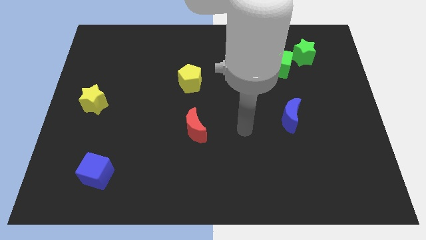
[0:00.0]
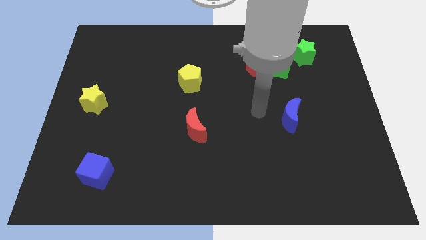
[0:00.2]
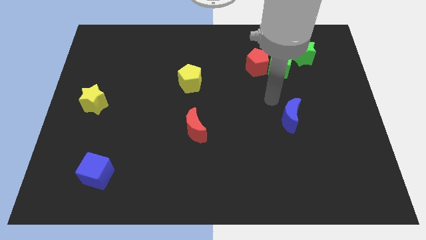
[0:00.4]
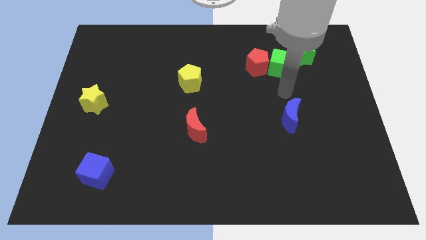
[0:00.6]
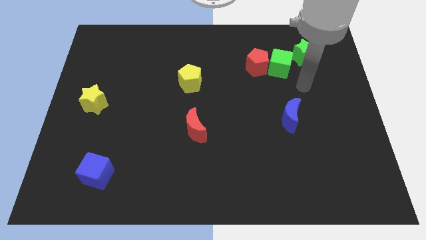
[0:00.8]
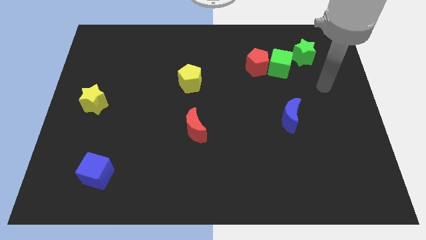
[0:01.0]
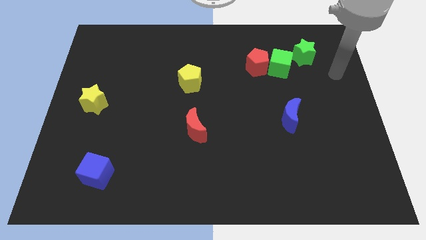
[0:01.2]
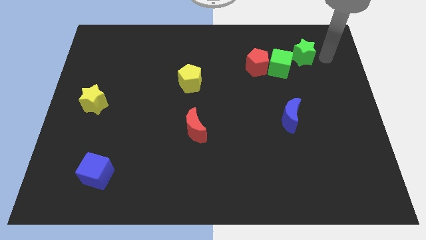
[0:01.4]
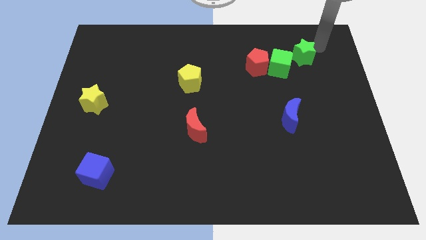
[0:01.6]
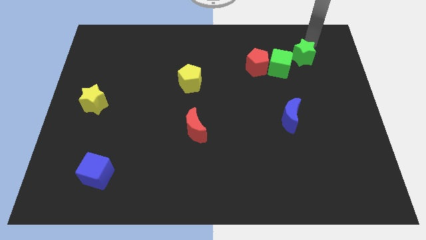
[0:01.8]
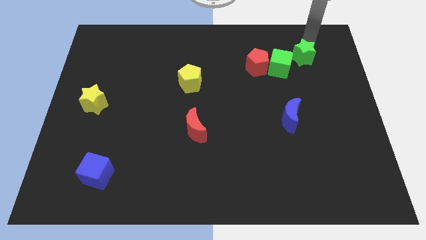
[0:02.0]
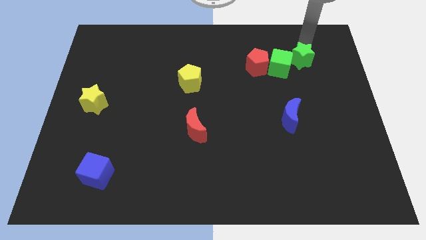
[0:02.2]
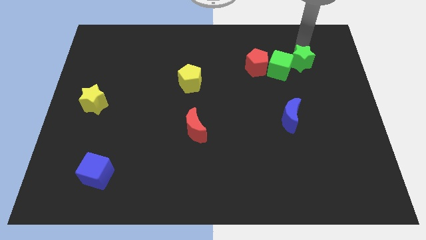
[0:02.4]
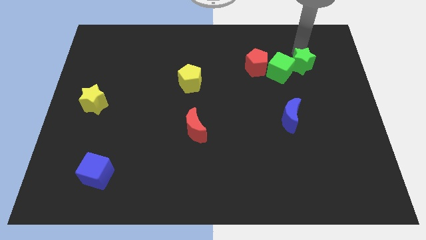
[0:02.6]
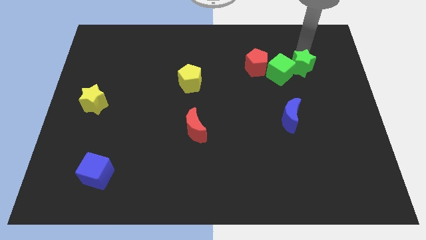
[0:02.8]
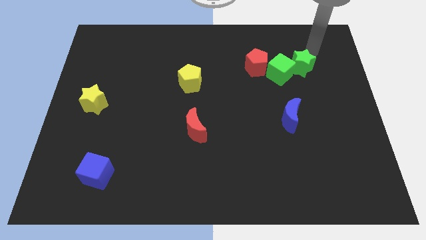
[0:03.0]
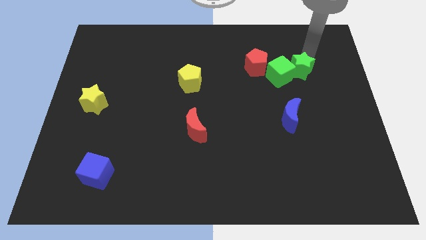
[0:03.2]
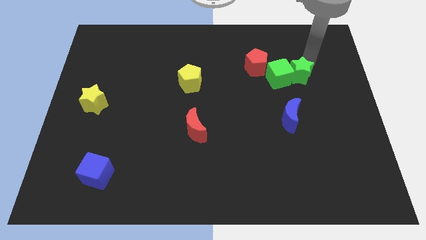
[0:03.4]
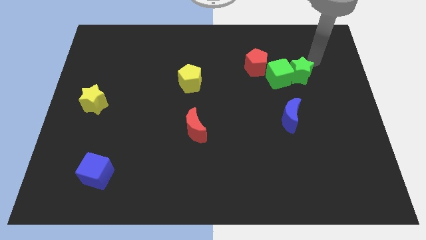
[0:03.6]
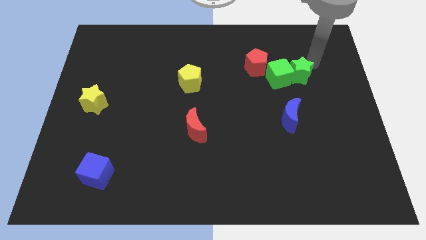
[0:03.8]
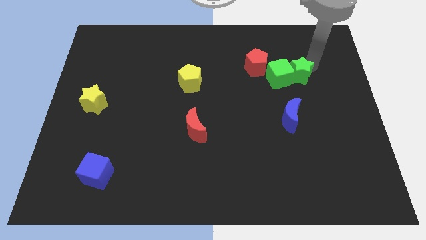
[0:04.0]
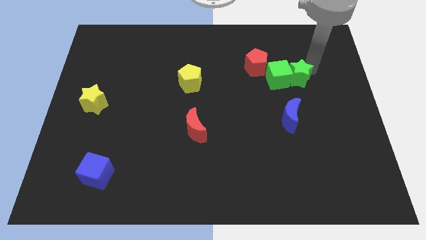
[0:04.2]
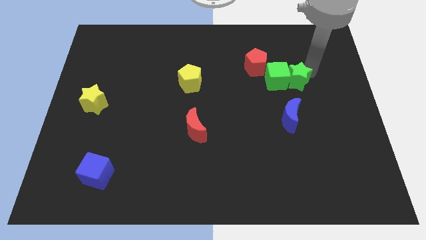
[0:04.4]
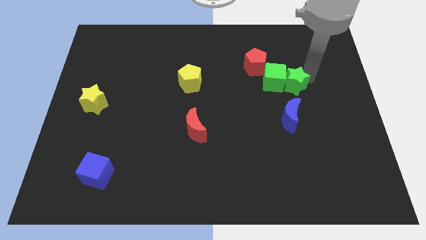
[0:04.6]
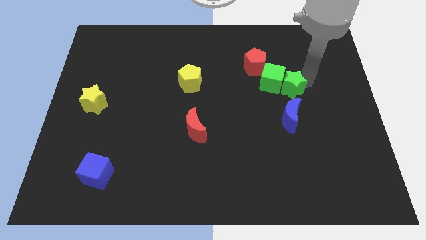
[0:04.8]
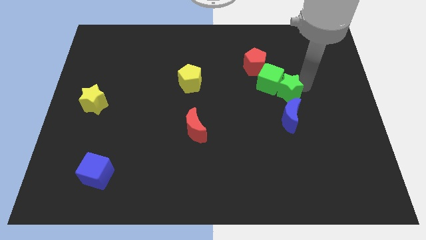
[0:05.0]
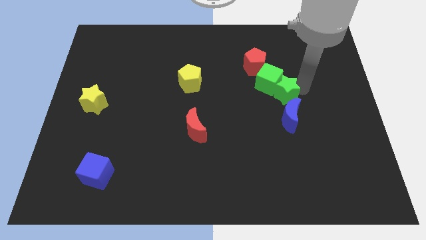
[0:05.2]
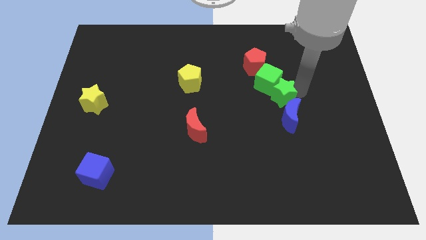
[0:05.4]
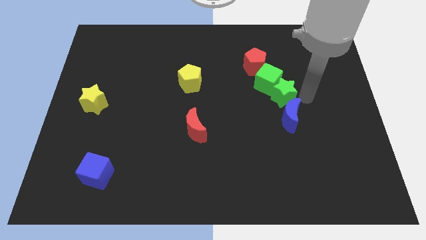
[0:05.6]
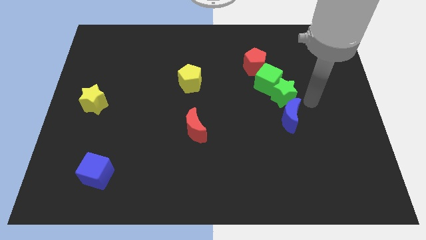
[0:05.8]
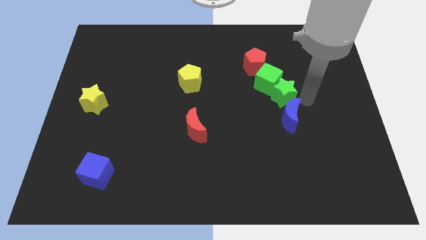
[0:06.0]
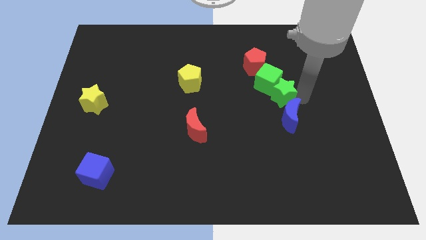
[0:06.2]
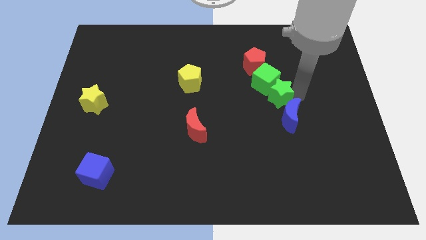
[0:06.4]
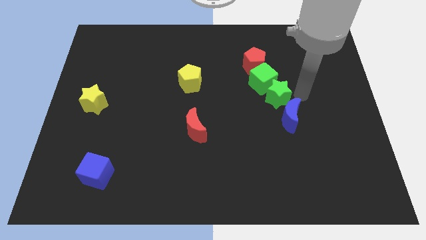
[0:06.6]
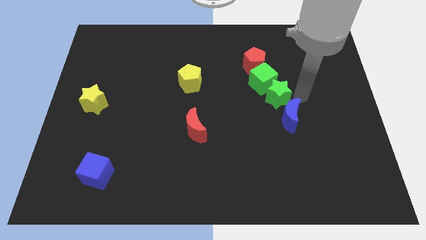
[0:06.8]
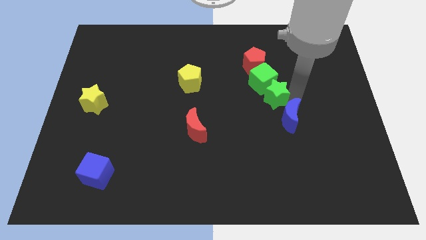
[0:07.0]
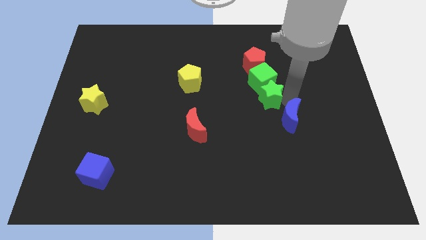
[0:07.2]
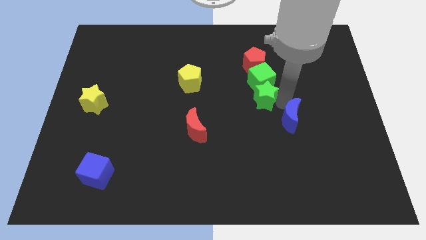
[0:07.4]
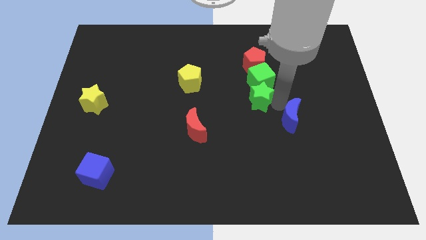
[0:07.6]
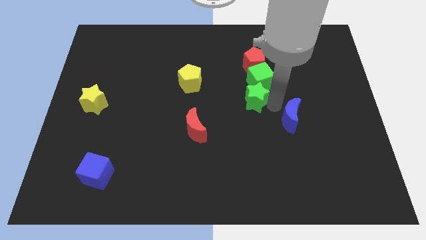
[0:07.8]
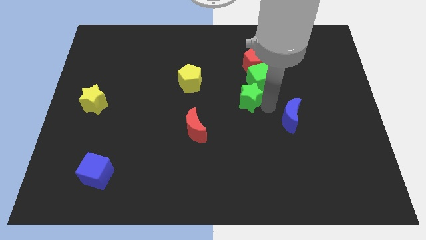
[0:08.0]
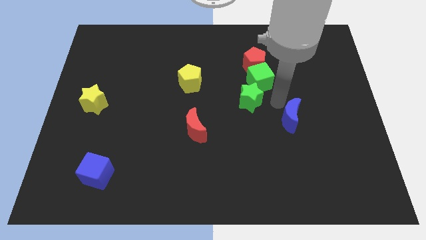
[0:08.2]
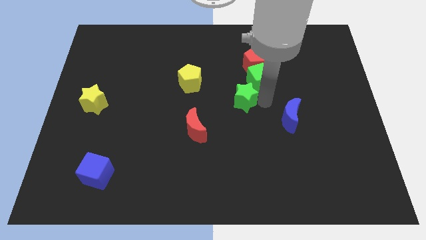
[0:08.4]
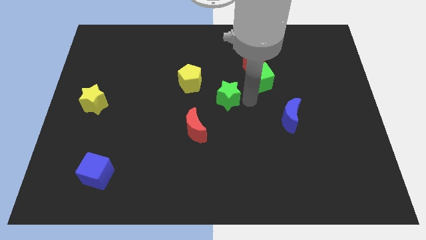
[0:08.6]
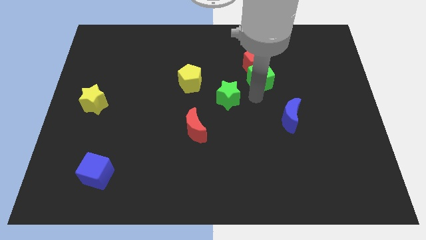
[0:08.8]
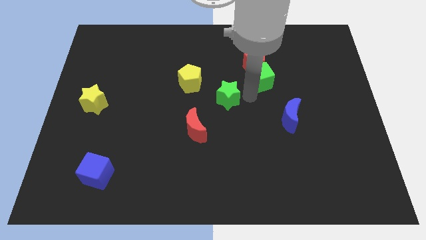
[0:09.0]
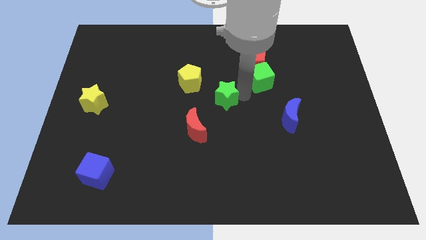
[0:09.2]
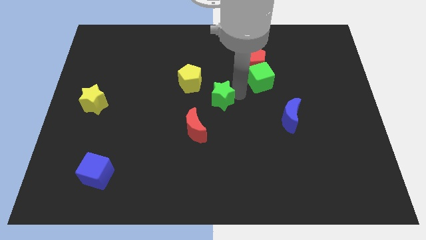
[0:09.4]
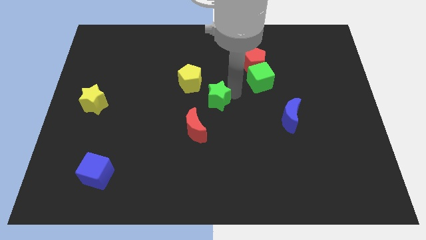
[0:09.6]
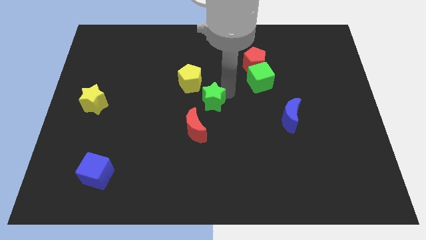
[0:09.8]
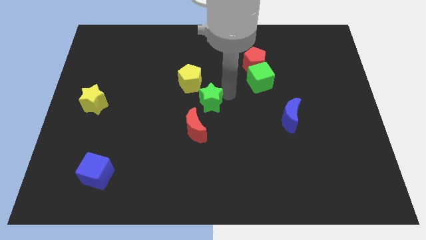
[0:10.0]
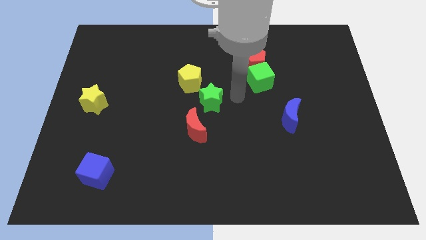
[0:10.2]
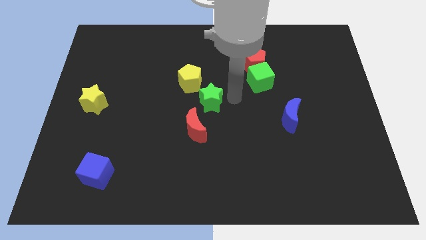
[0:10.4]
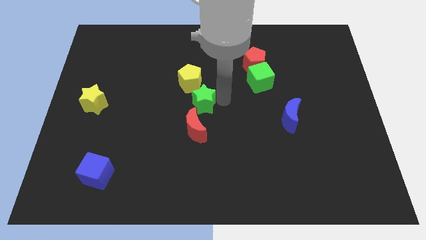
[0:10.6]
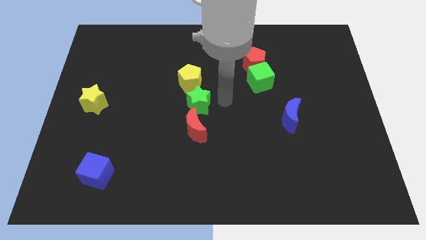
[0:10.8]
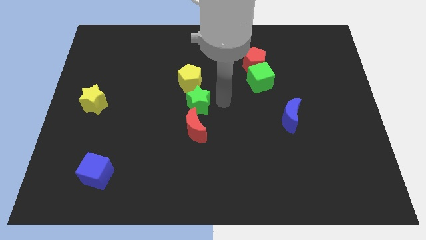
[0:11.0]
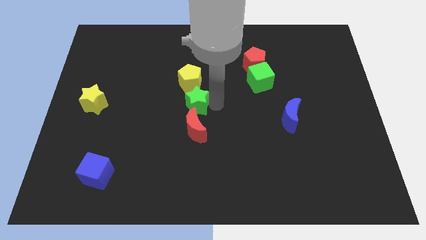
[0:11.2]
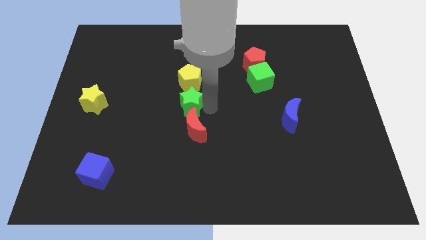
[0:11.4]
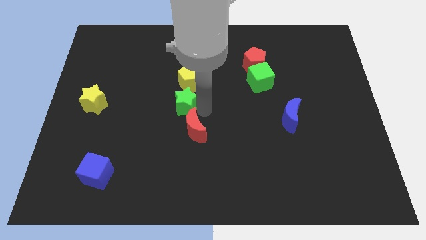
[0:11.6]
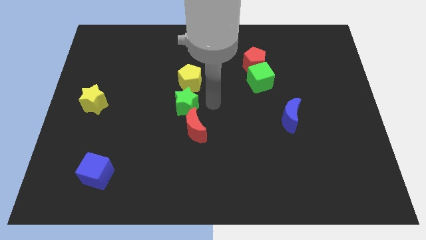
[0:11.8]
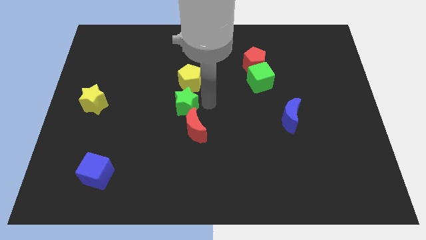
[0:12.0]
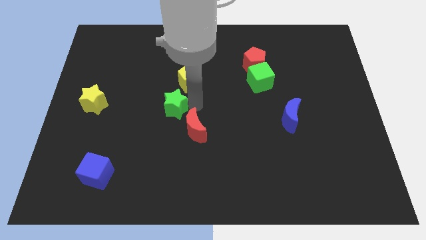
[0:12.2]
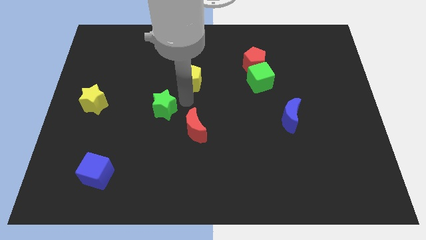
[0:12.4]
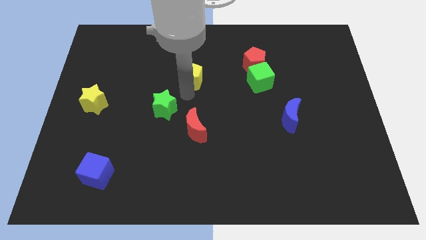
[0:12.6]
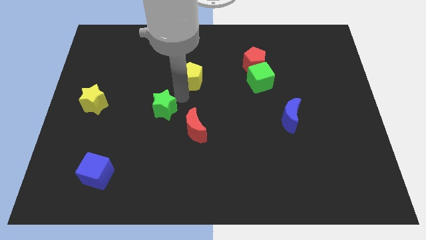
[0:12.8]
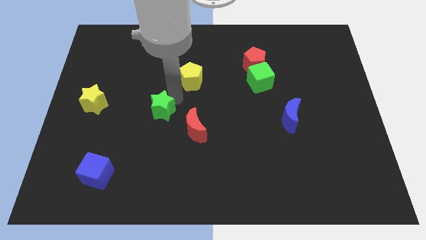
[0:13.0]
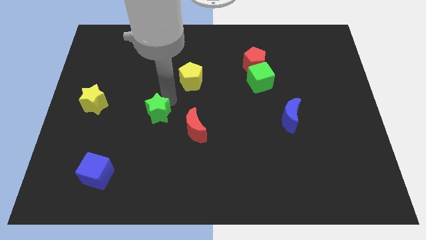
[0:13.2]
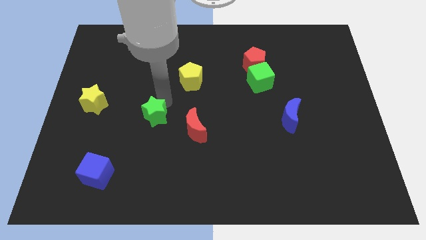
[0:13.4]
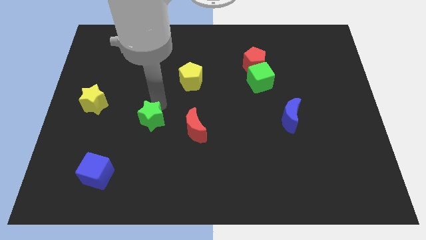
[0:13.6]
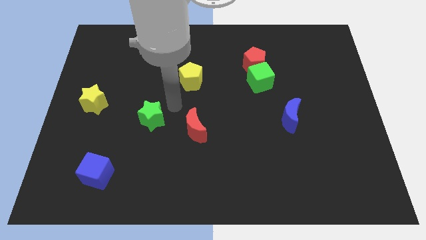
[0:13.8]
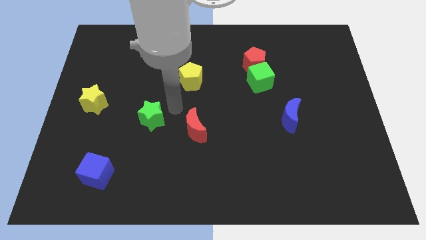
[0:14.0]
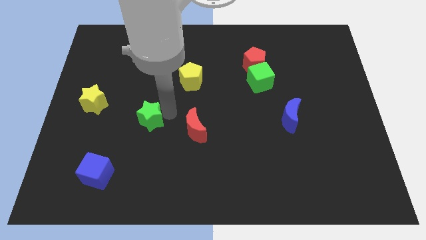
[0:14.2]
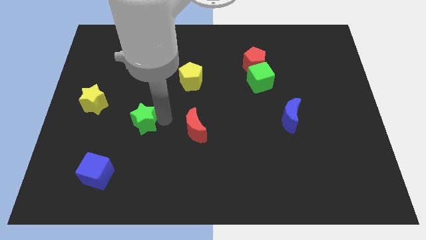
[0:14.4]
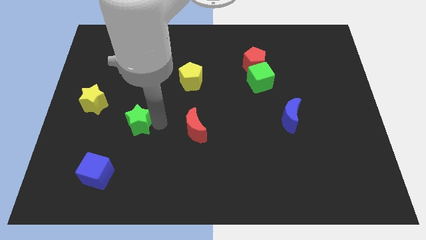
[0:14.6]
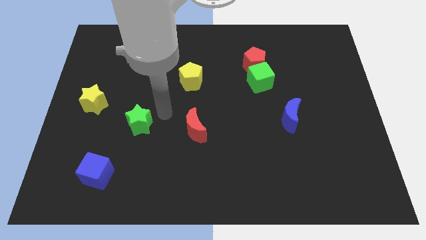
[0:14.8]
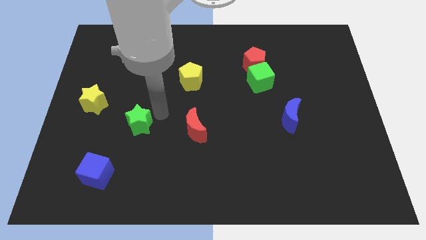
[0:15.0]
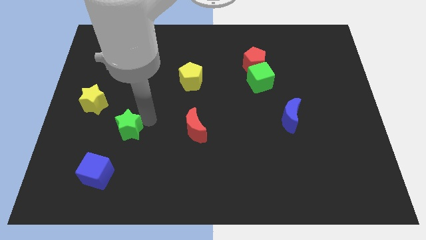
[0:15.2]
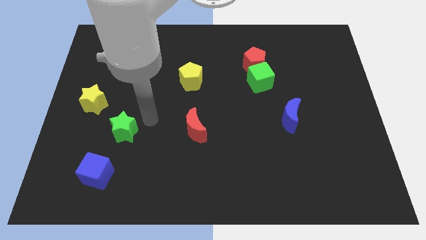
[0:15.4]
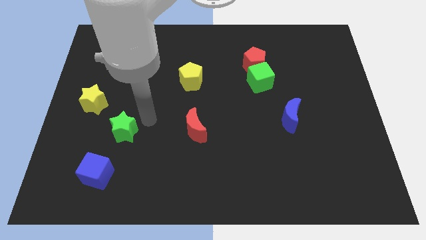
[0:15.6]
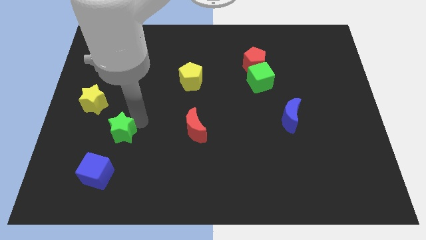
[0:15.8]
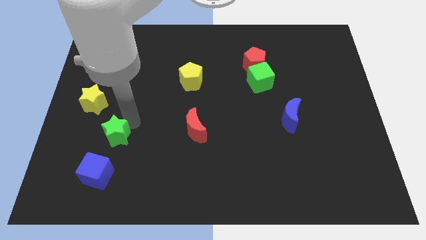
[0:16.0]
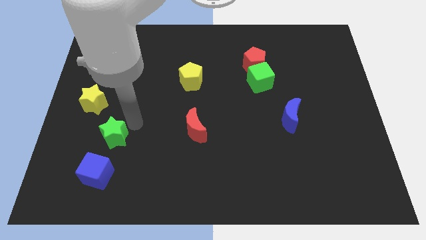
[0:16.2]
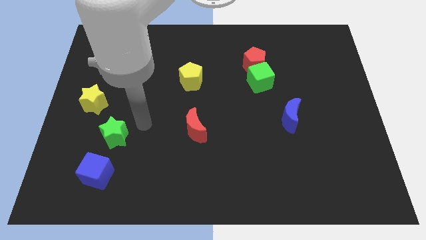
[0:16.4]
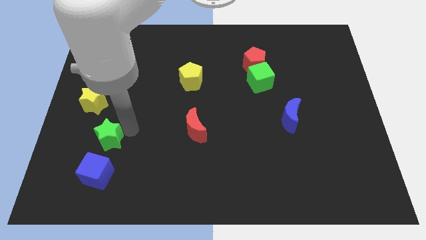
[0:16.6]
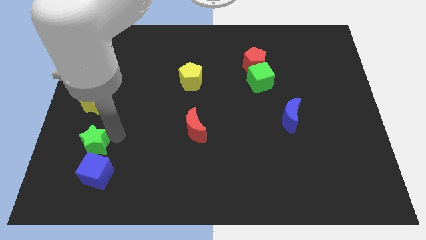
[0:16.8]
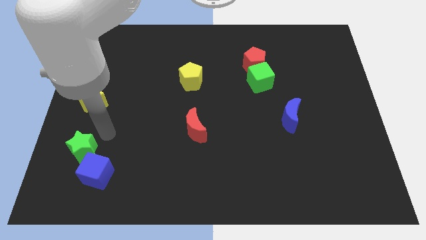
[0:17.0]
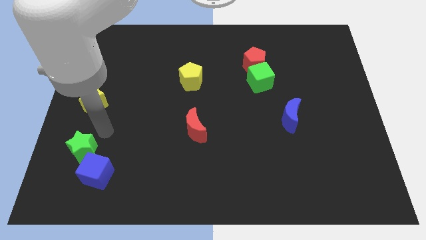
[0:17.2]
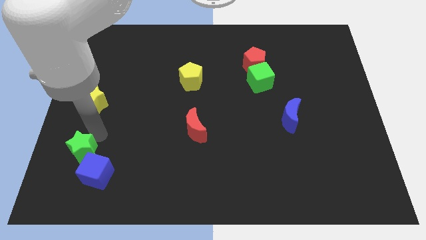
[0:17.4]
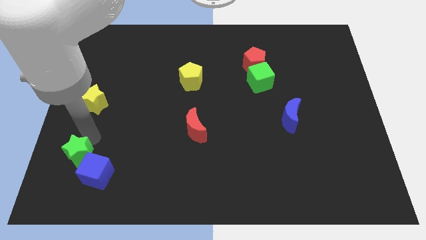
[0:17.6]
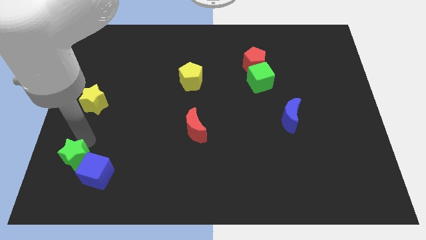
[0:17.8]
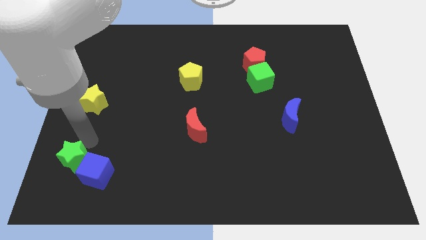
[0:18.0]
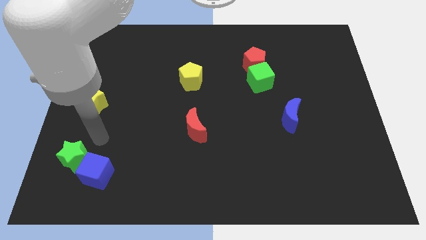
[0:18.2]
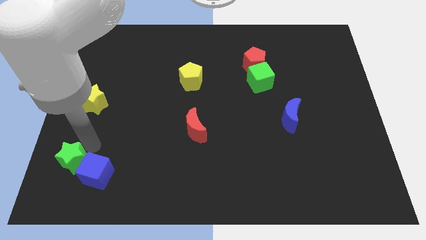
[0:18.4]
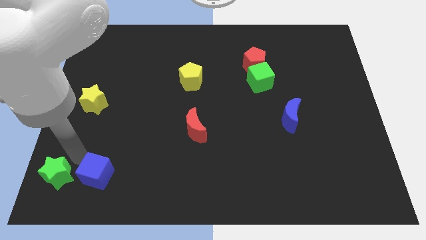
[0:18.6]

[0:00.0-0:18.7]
push the green star to the lower left corner
